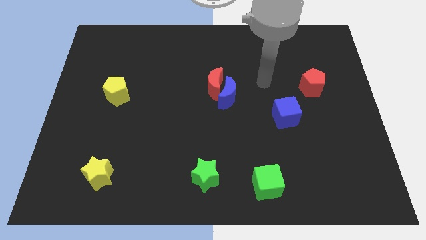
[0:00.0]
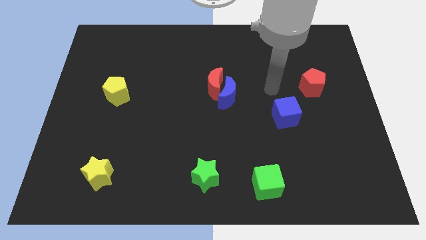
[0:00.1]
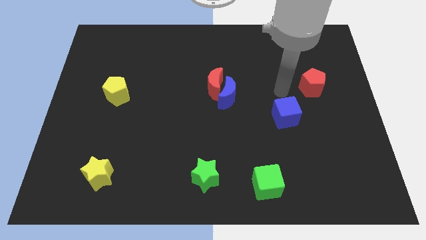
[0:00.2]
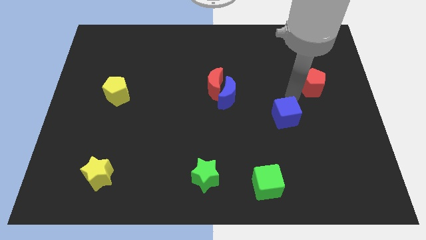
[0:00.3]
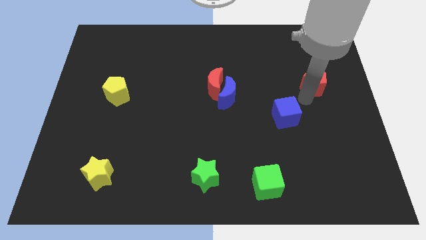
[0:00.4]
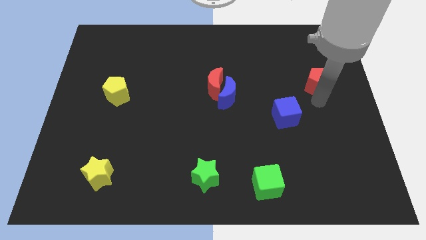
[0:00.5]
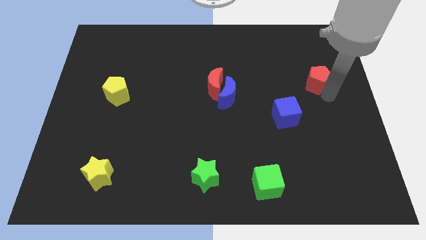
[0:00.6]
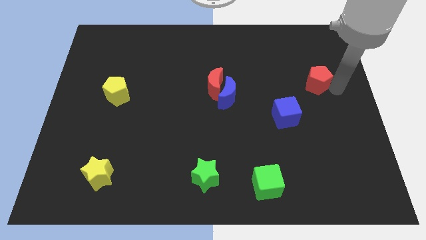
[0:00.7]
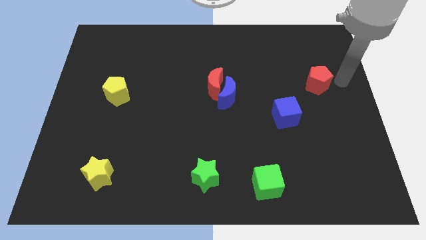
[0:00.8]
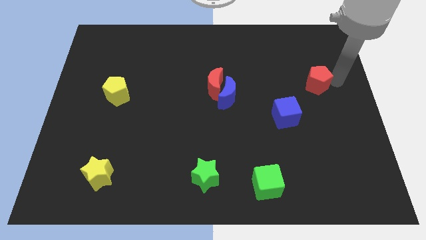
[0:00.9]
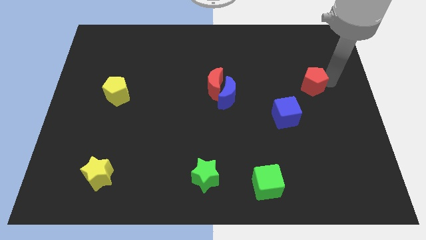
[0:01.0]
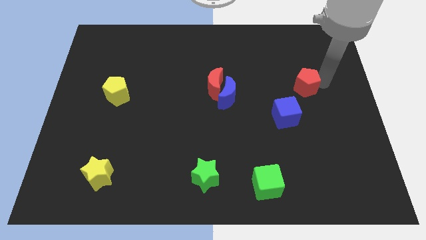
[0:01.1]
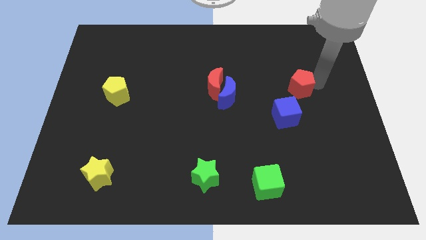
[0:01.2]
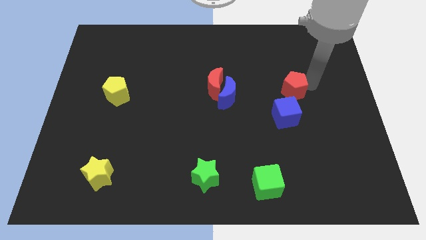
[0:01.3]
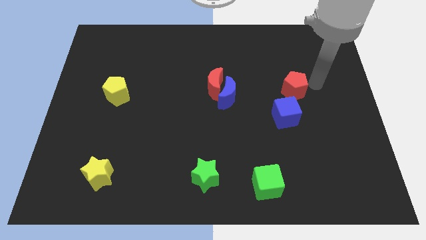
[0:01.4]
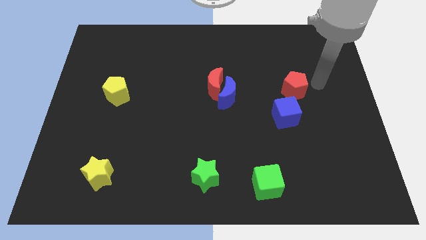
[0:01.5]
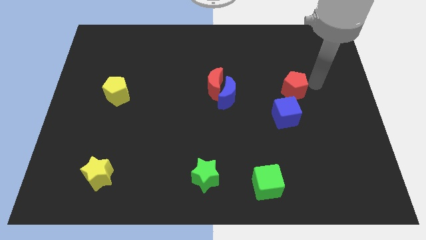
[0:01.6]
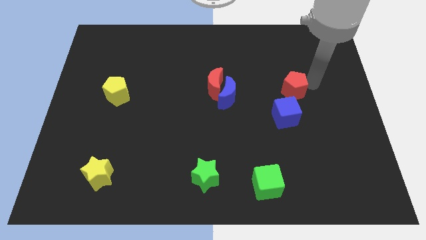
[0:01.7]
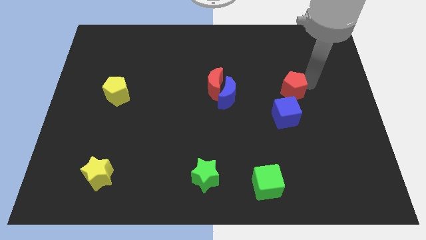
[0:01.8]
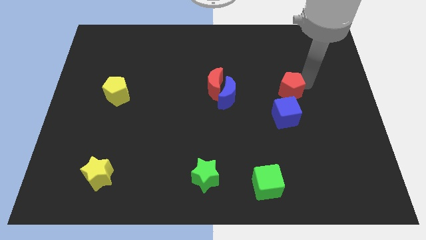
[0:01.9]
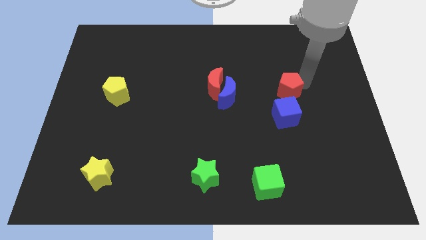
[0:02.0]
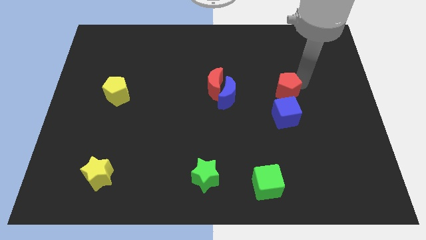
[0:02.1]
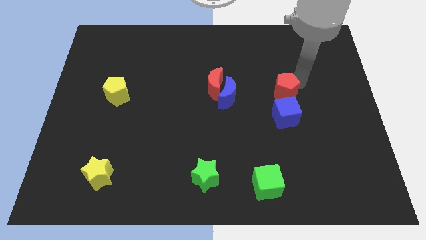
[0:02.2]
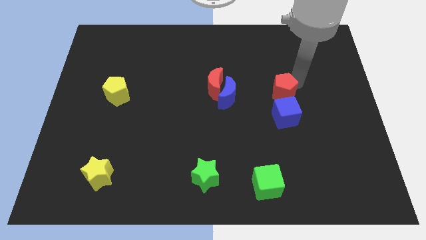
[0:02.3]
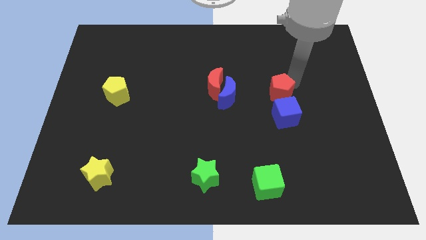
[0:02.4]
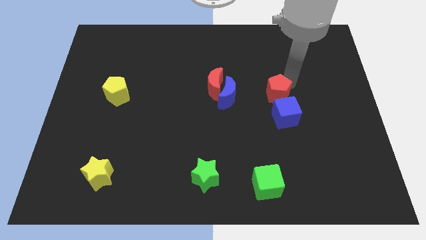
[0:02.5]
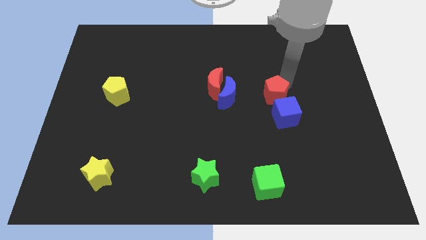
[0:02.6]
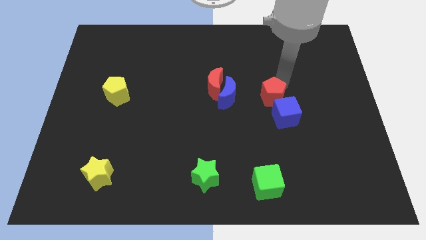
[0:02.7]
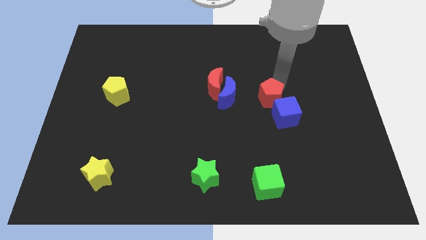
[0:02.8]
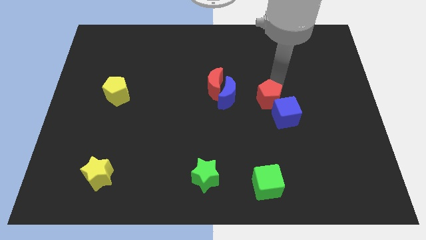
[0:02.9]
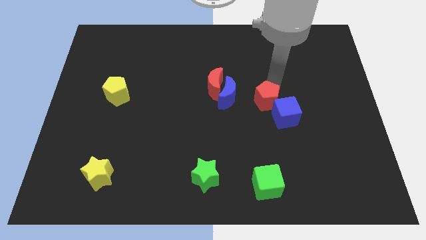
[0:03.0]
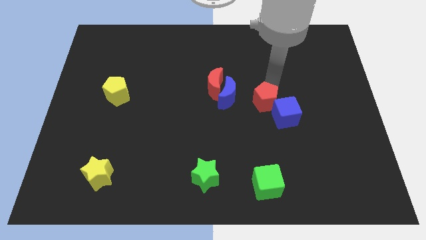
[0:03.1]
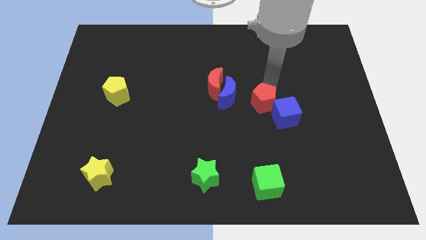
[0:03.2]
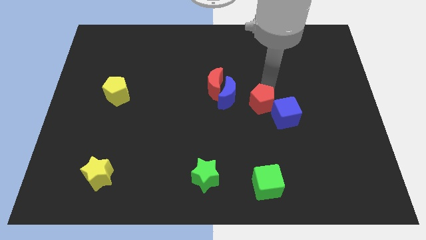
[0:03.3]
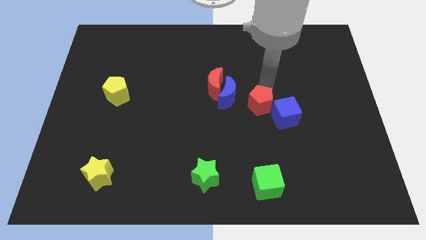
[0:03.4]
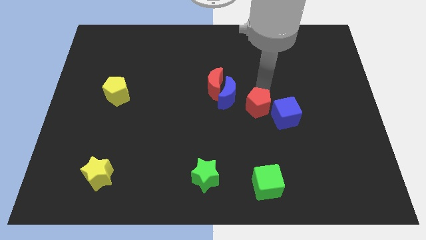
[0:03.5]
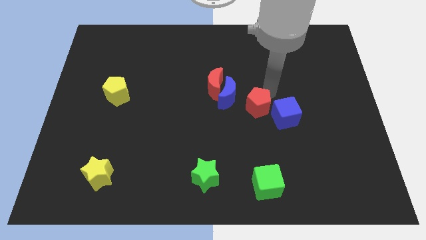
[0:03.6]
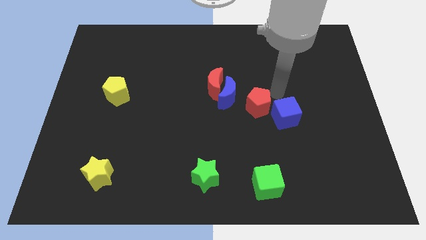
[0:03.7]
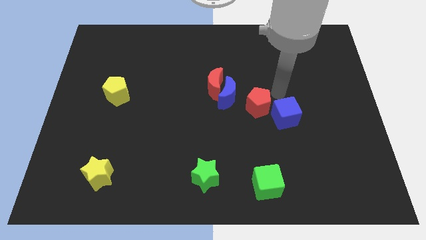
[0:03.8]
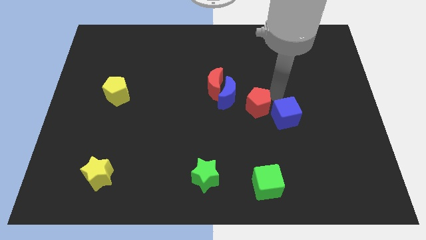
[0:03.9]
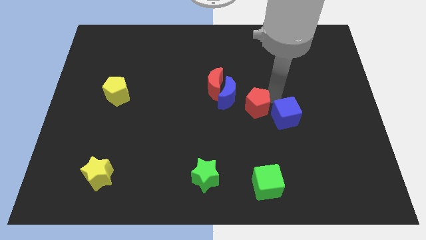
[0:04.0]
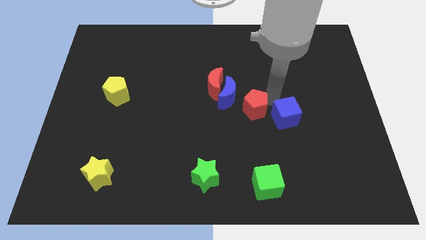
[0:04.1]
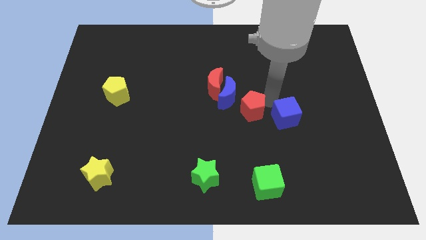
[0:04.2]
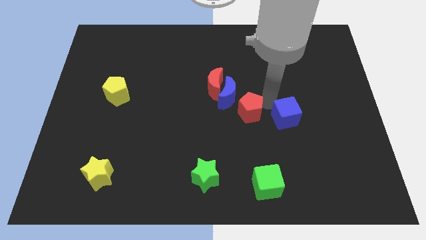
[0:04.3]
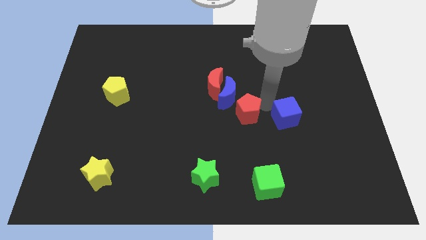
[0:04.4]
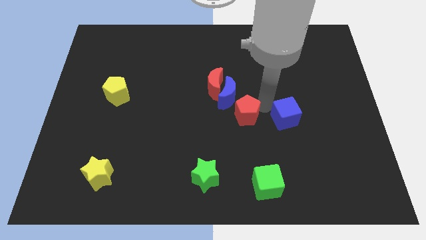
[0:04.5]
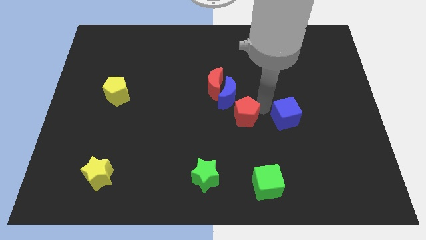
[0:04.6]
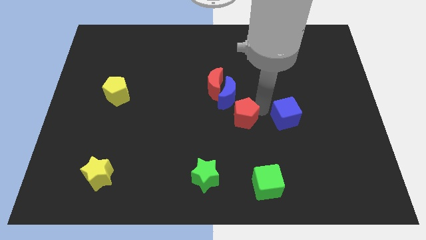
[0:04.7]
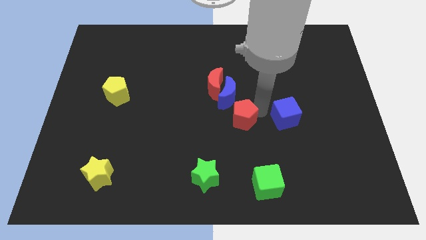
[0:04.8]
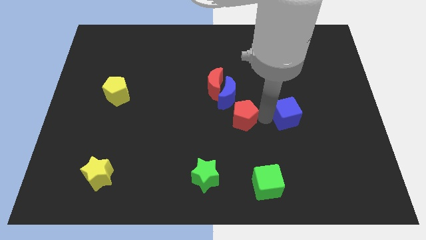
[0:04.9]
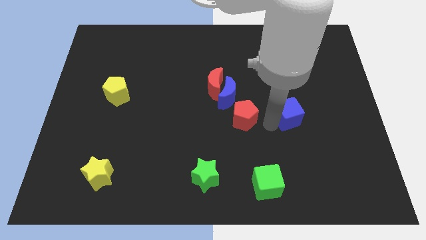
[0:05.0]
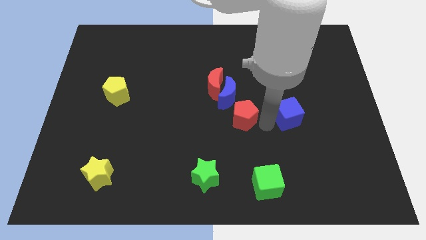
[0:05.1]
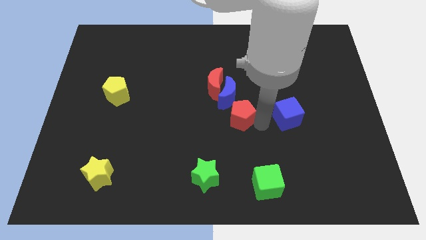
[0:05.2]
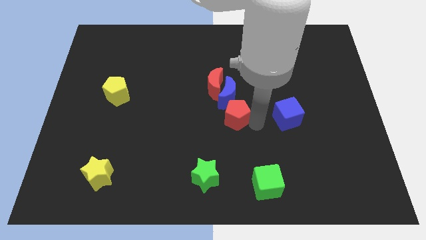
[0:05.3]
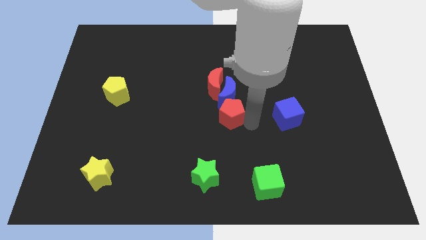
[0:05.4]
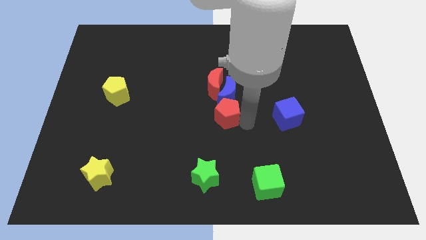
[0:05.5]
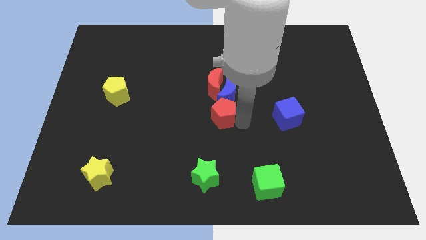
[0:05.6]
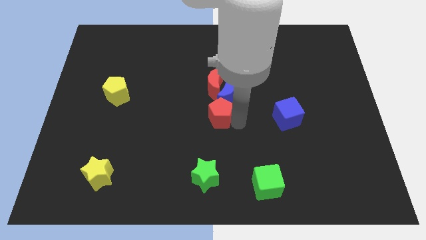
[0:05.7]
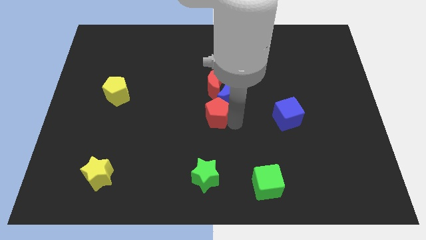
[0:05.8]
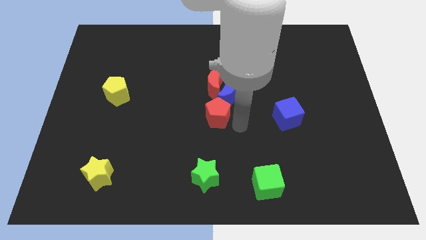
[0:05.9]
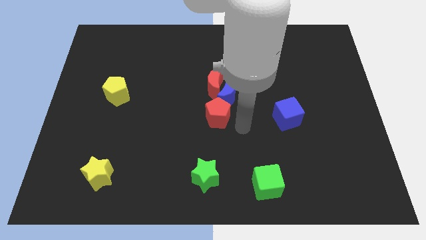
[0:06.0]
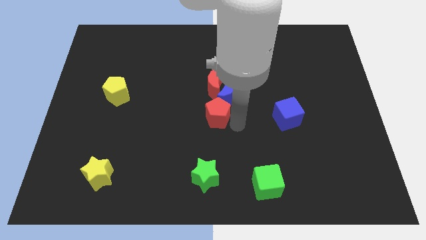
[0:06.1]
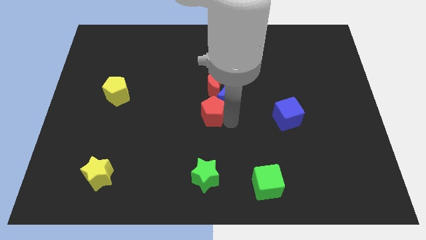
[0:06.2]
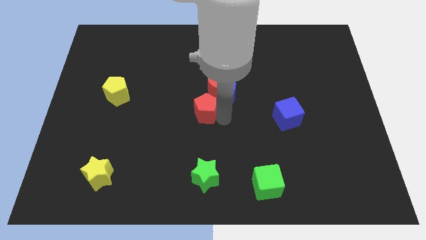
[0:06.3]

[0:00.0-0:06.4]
move the red pentagon to the bottom left side of the red moon

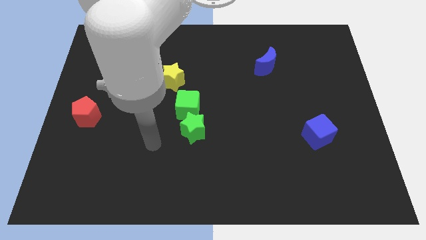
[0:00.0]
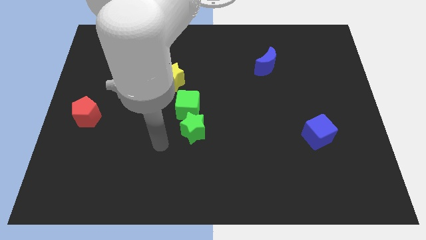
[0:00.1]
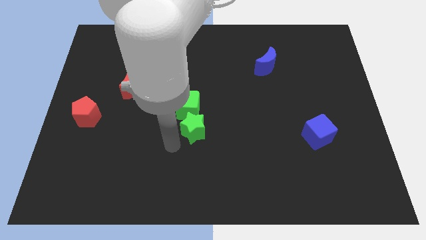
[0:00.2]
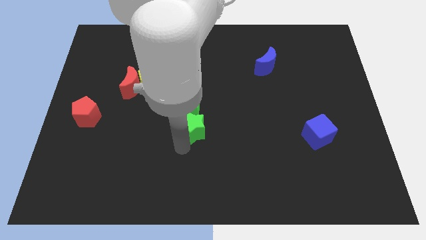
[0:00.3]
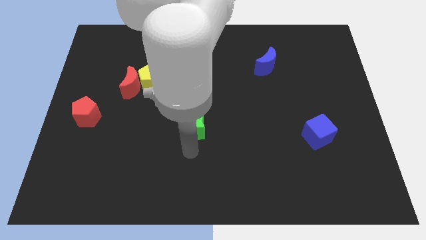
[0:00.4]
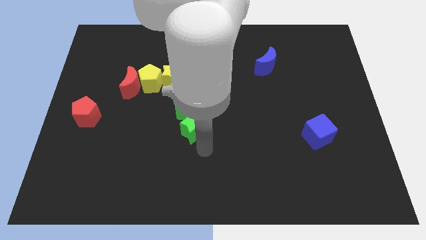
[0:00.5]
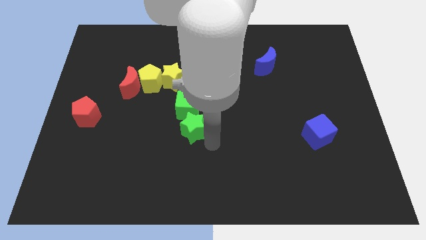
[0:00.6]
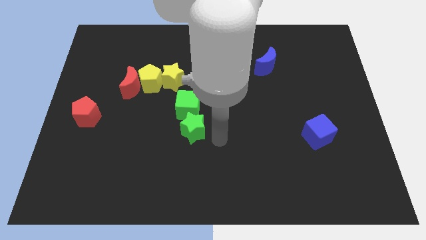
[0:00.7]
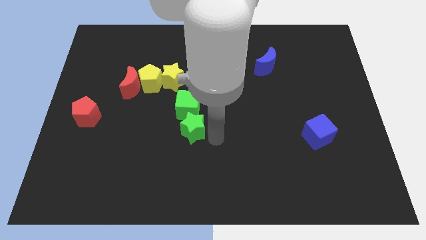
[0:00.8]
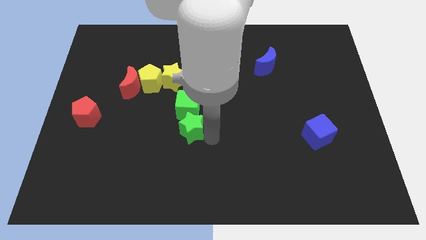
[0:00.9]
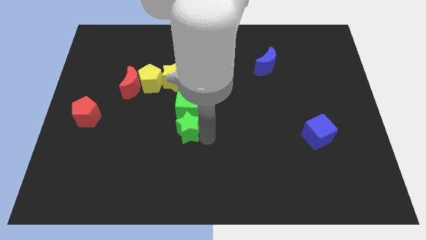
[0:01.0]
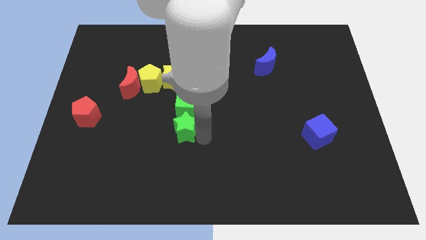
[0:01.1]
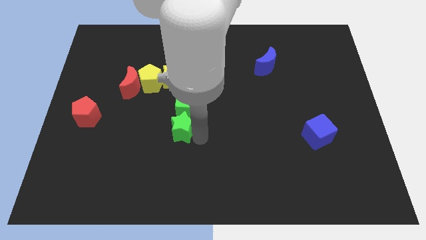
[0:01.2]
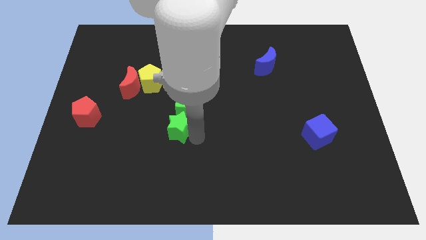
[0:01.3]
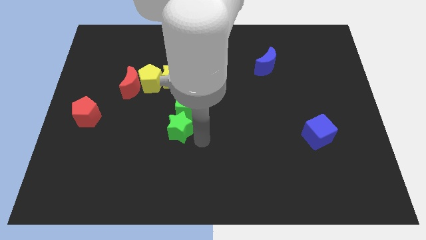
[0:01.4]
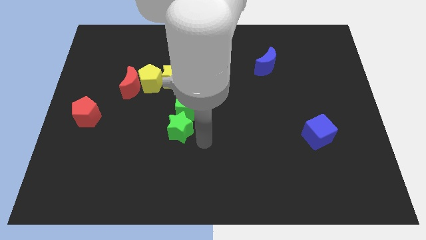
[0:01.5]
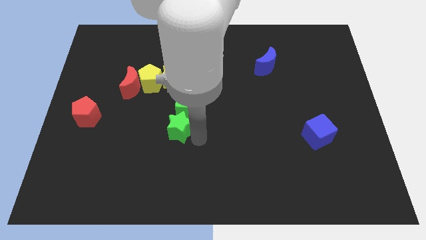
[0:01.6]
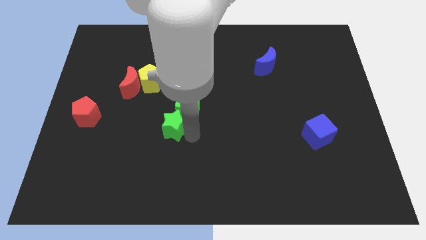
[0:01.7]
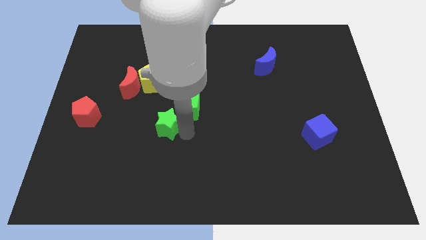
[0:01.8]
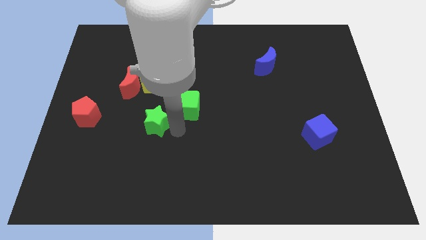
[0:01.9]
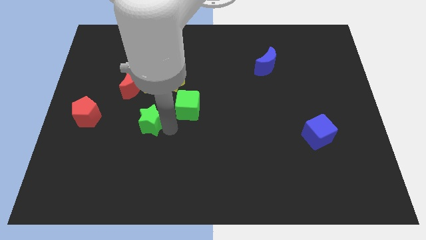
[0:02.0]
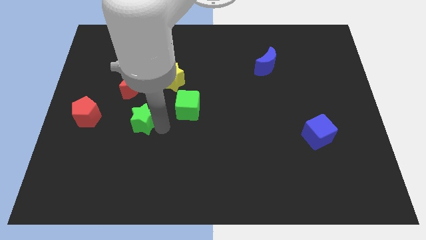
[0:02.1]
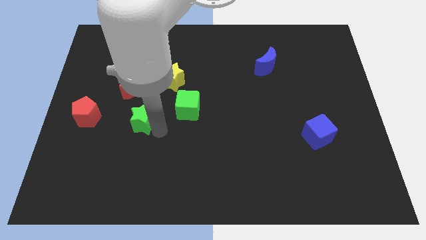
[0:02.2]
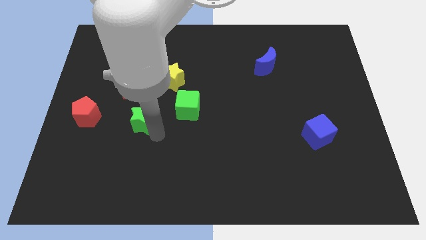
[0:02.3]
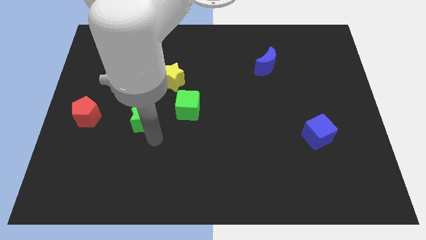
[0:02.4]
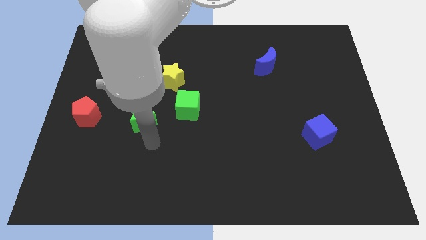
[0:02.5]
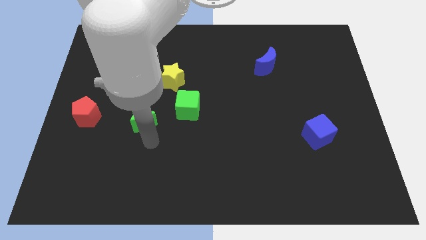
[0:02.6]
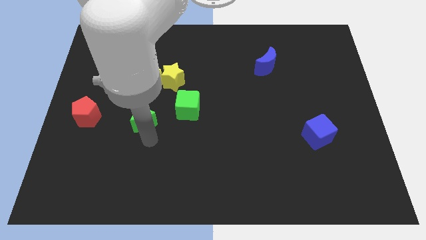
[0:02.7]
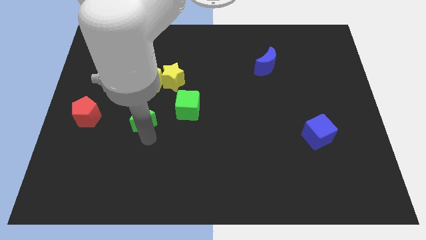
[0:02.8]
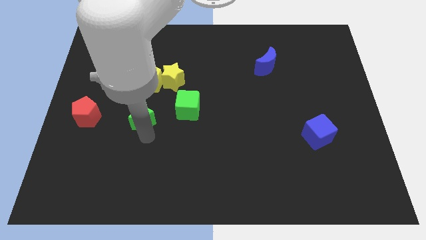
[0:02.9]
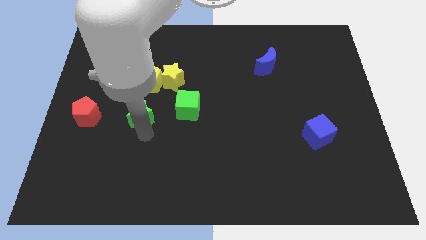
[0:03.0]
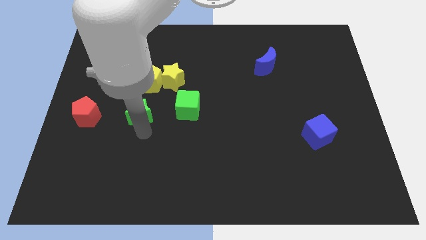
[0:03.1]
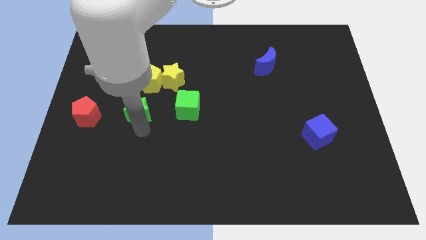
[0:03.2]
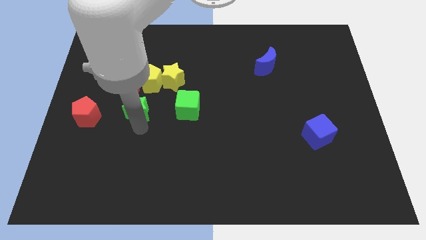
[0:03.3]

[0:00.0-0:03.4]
slide the green star diagonally down and to the left of the yellow pentagon
